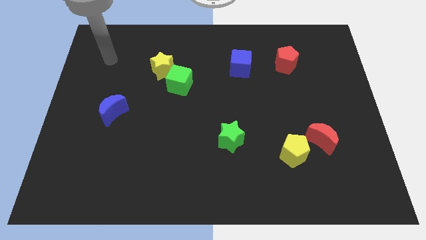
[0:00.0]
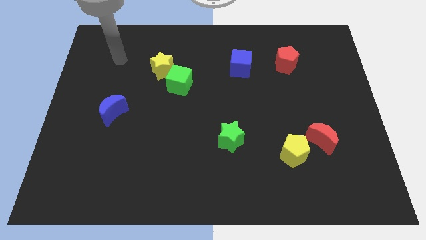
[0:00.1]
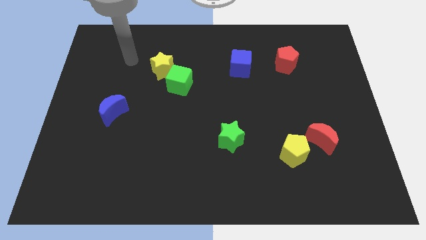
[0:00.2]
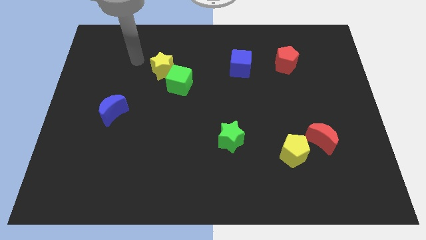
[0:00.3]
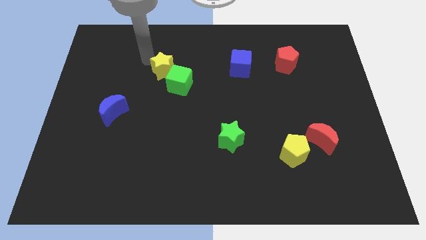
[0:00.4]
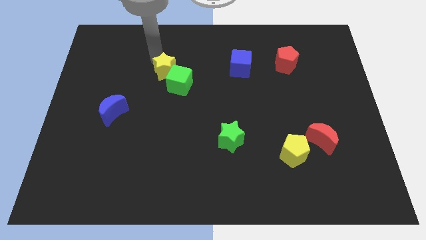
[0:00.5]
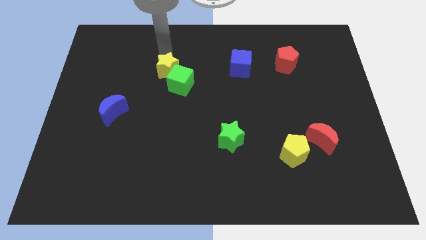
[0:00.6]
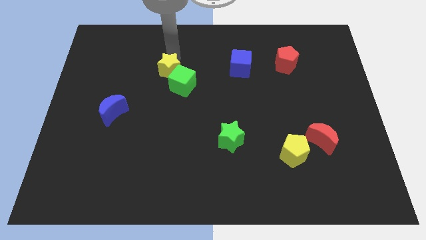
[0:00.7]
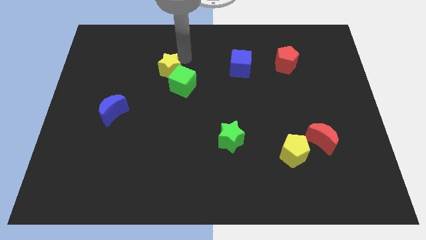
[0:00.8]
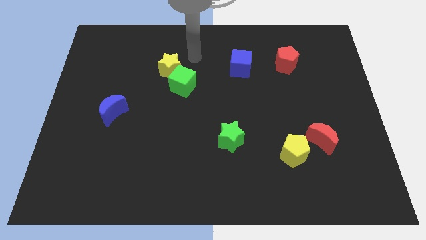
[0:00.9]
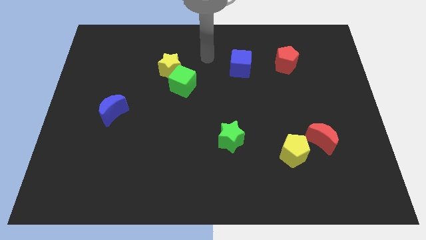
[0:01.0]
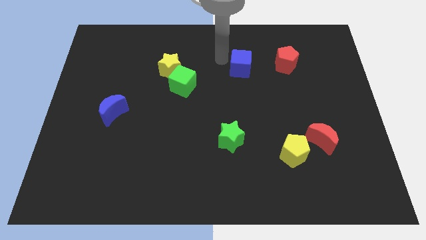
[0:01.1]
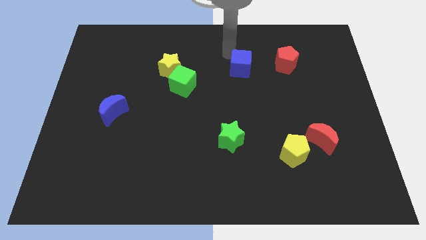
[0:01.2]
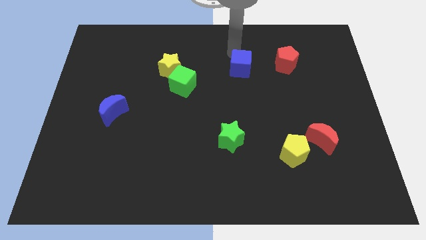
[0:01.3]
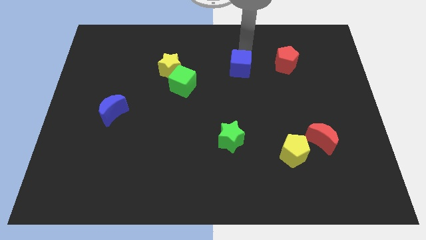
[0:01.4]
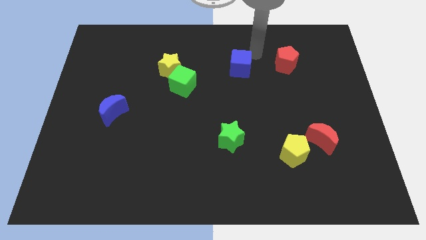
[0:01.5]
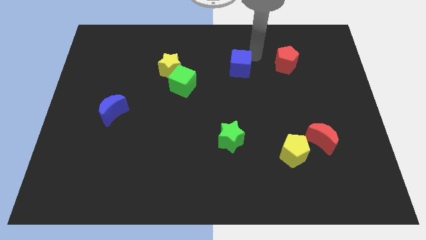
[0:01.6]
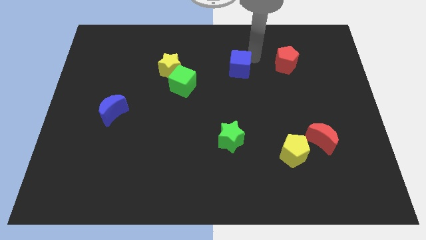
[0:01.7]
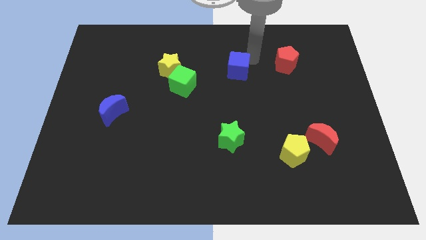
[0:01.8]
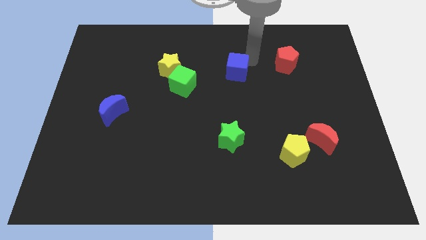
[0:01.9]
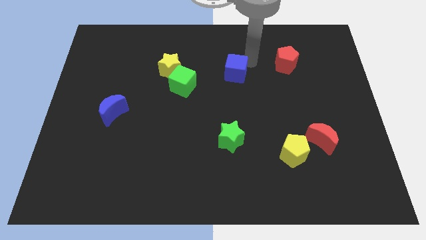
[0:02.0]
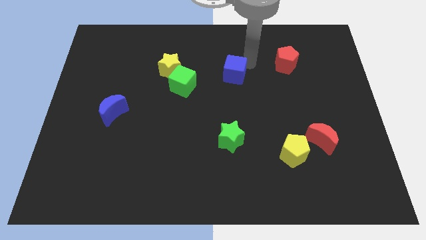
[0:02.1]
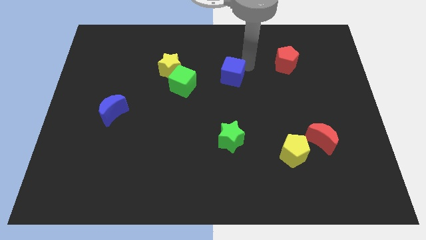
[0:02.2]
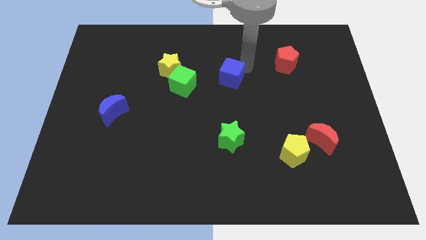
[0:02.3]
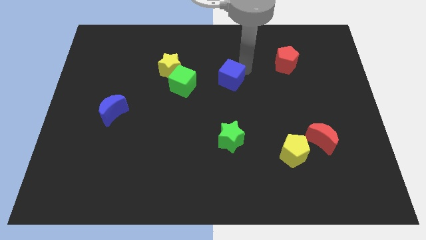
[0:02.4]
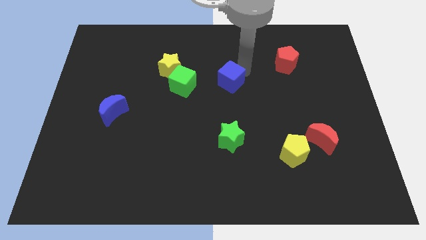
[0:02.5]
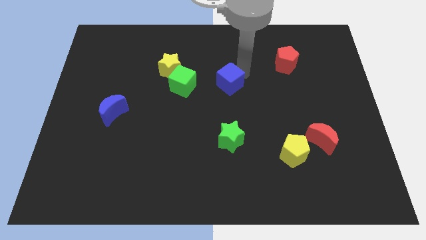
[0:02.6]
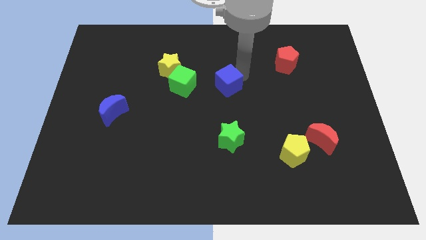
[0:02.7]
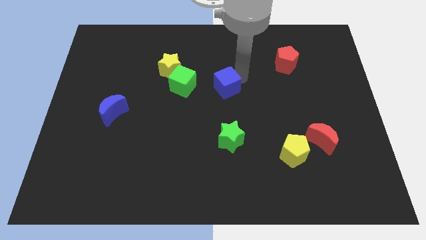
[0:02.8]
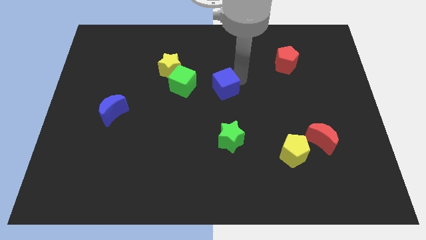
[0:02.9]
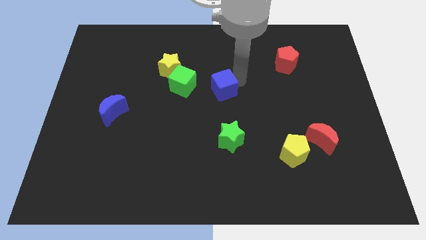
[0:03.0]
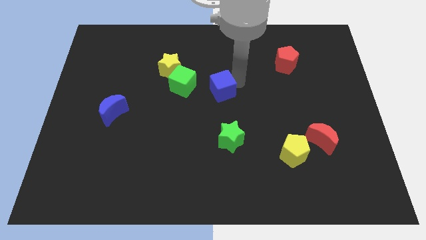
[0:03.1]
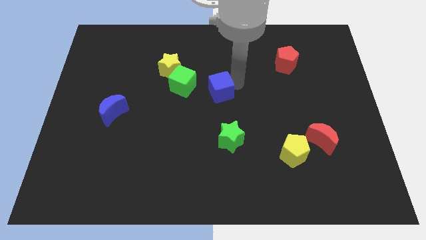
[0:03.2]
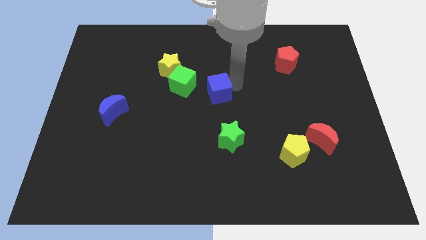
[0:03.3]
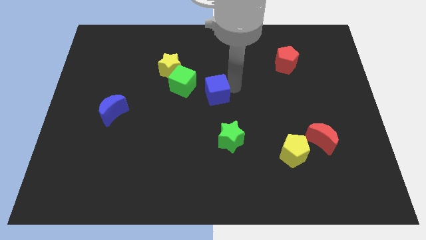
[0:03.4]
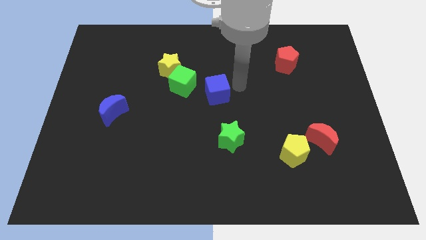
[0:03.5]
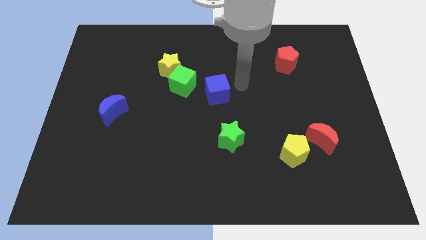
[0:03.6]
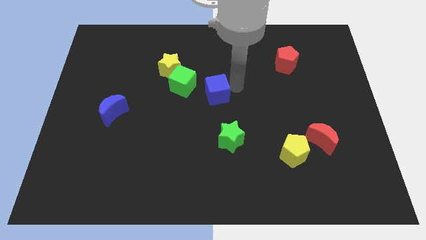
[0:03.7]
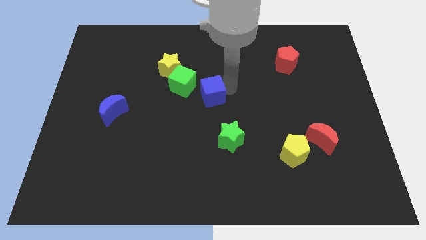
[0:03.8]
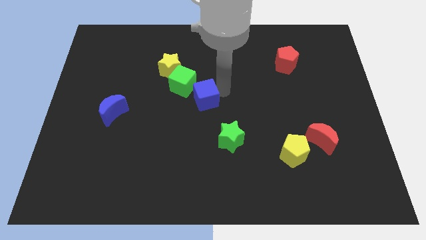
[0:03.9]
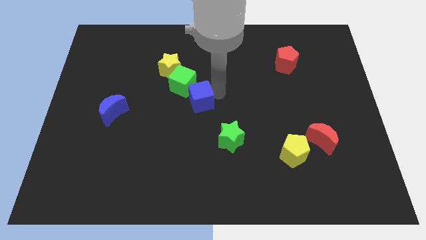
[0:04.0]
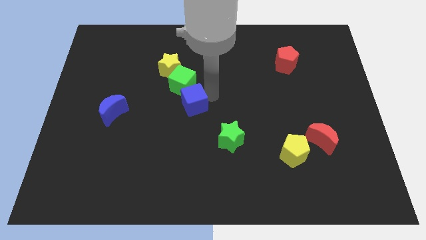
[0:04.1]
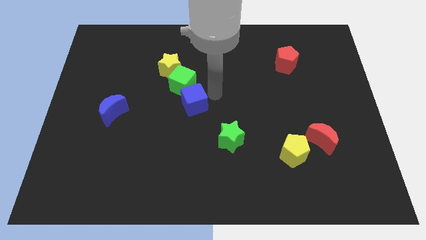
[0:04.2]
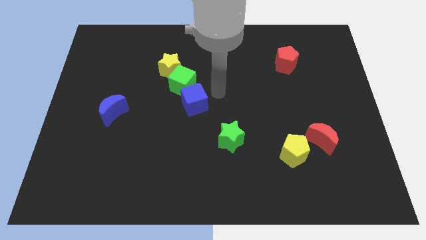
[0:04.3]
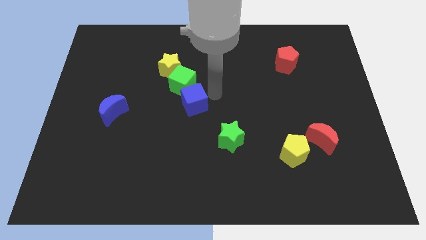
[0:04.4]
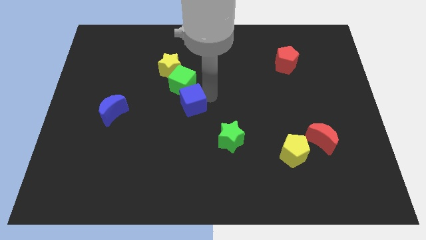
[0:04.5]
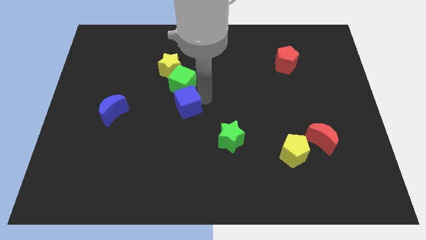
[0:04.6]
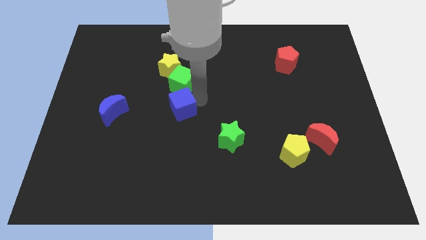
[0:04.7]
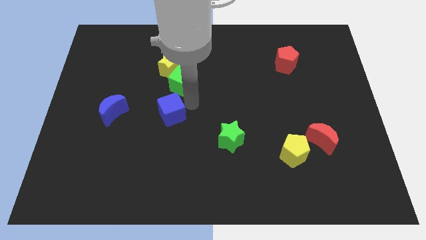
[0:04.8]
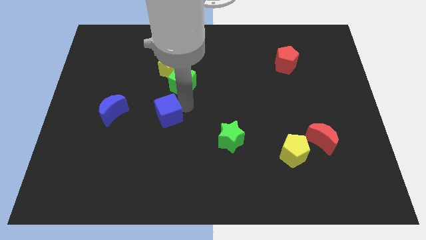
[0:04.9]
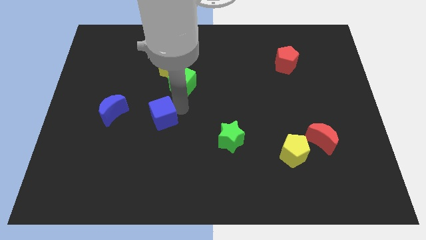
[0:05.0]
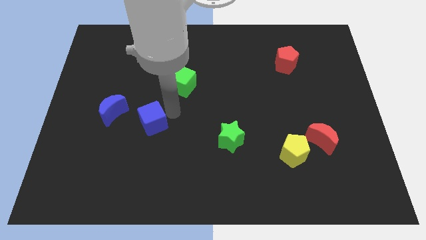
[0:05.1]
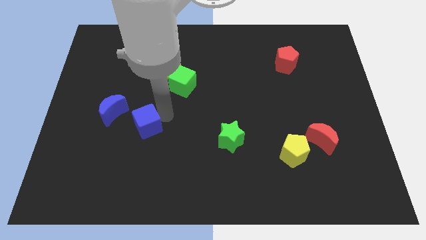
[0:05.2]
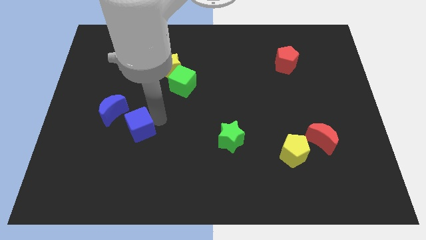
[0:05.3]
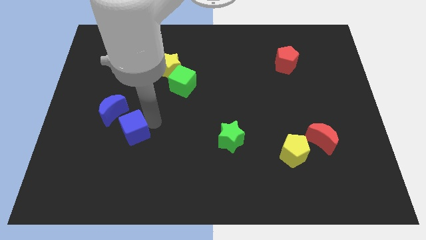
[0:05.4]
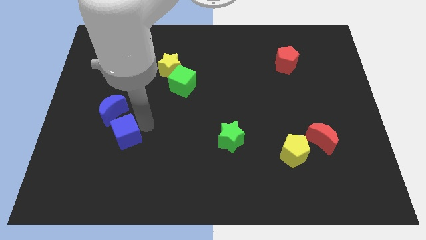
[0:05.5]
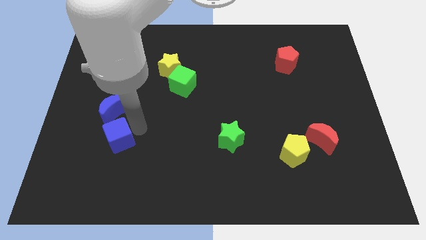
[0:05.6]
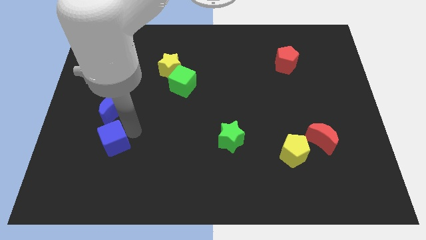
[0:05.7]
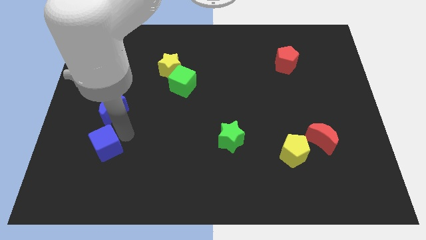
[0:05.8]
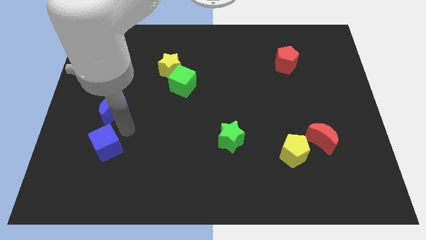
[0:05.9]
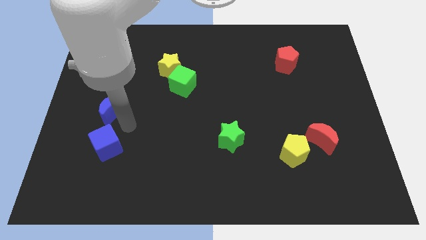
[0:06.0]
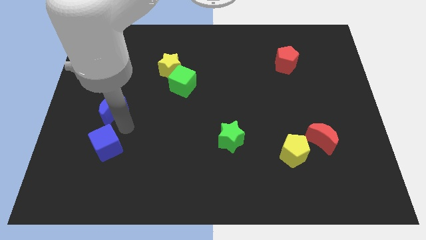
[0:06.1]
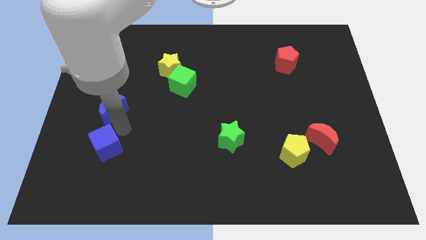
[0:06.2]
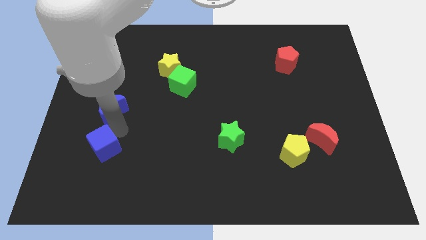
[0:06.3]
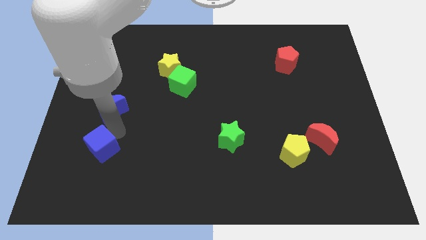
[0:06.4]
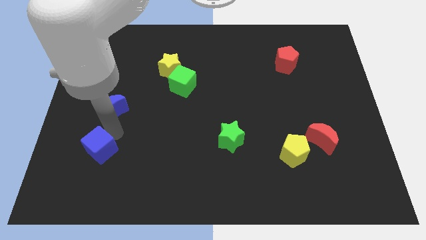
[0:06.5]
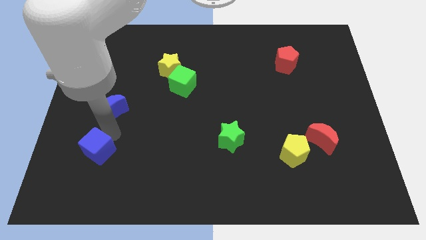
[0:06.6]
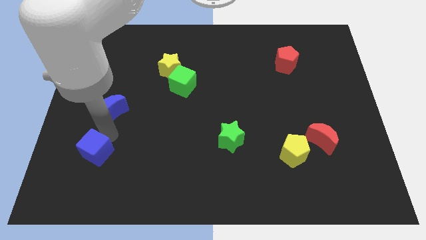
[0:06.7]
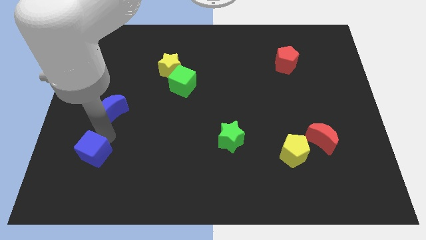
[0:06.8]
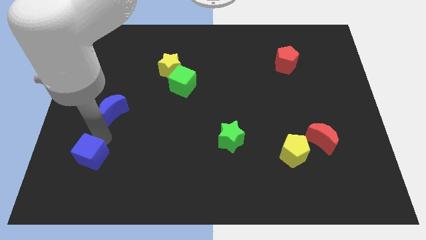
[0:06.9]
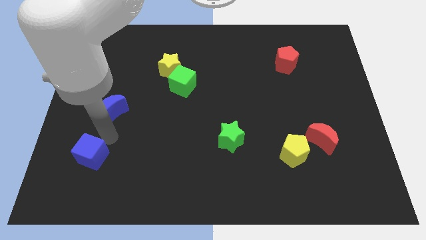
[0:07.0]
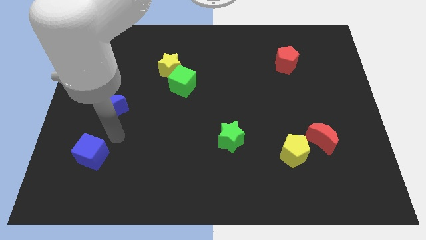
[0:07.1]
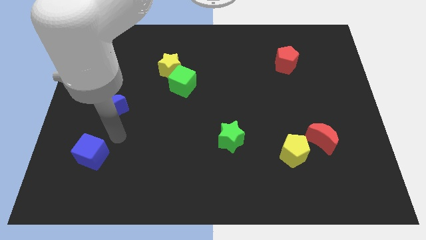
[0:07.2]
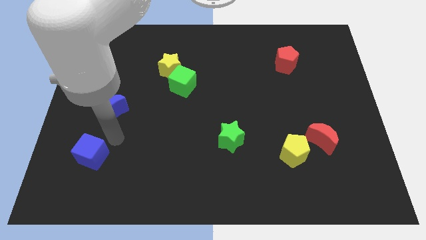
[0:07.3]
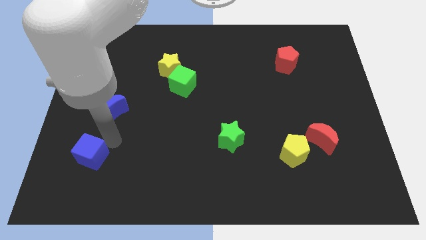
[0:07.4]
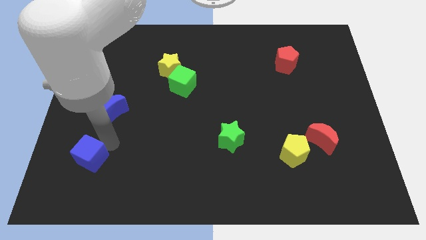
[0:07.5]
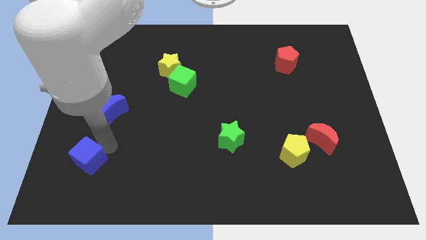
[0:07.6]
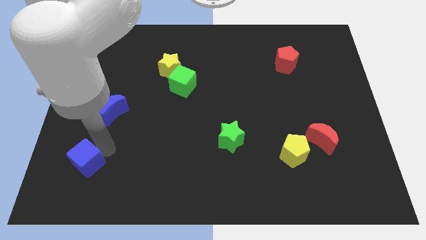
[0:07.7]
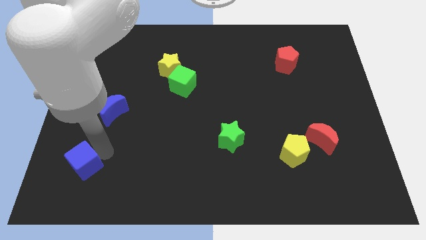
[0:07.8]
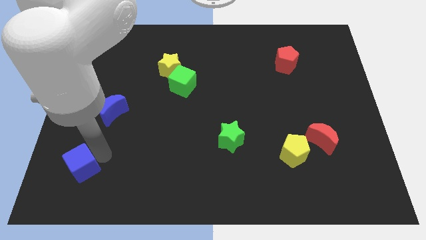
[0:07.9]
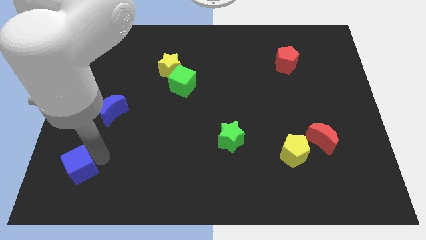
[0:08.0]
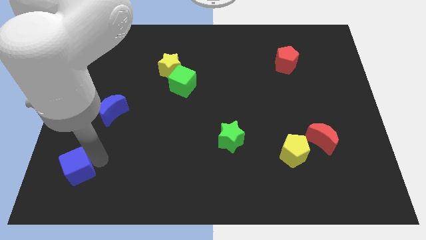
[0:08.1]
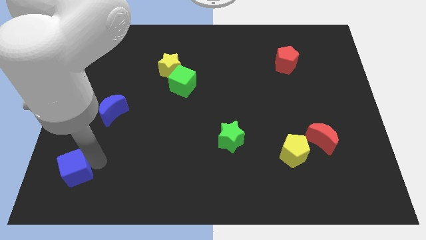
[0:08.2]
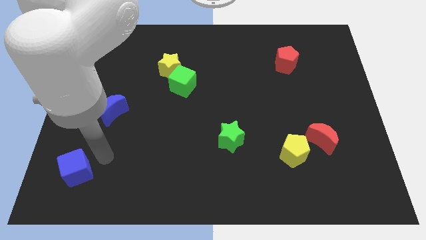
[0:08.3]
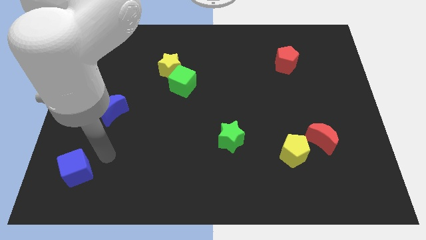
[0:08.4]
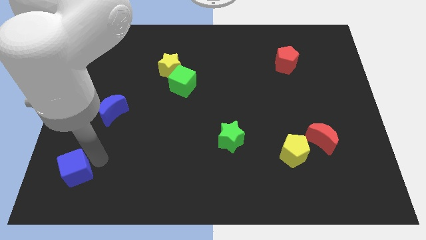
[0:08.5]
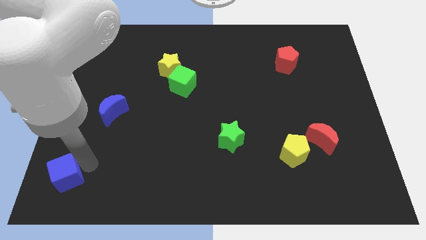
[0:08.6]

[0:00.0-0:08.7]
push the blue cube to the lower left corner
